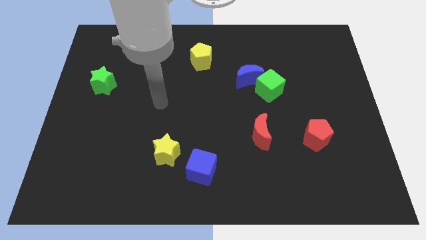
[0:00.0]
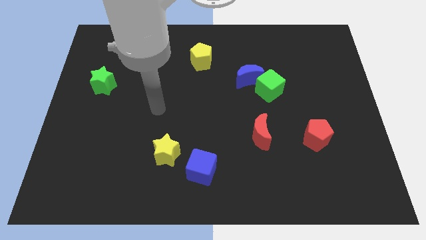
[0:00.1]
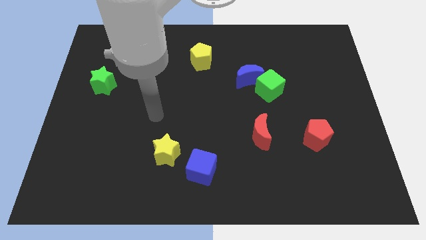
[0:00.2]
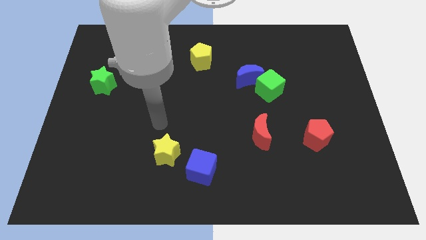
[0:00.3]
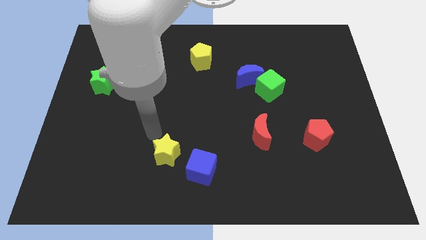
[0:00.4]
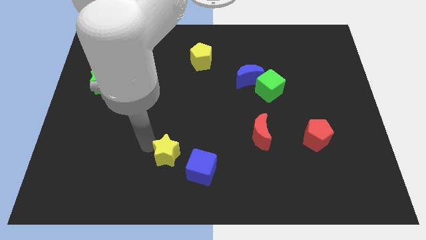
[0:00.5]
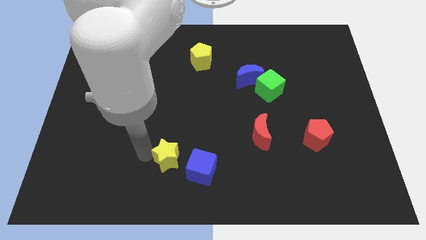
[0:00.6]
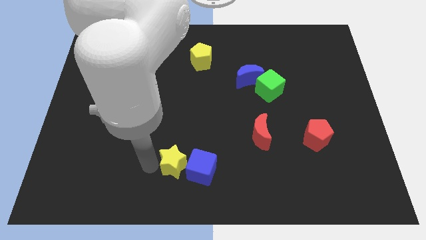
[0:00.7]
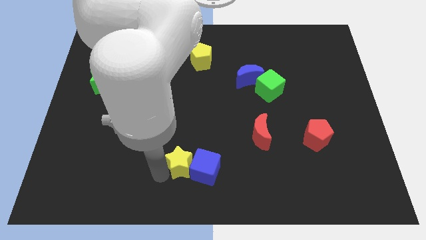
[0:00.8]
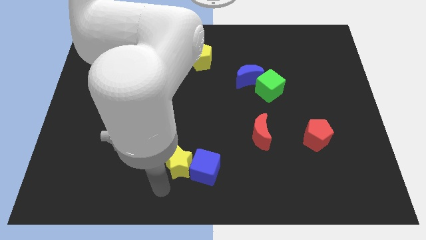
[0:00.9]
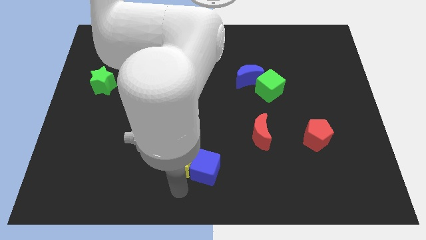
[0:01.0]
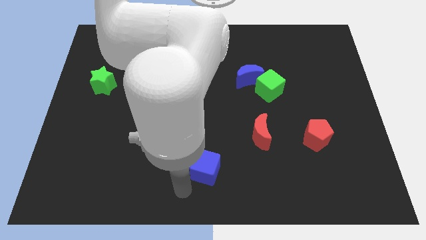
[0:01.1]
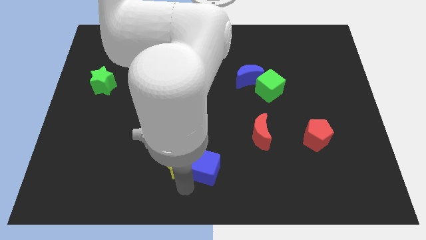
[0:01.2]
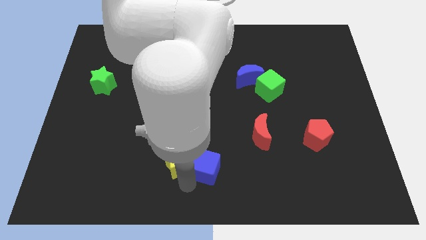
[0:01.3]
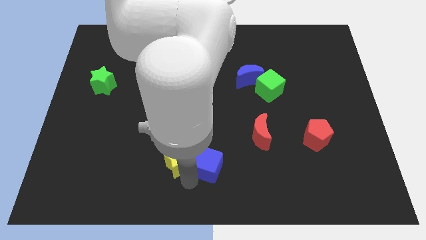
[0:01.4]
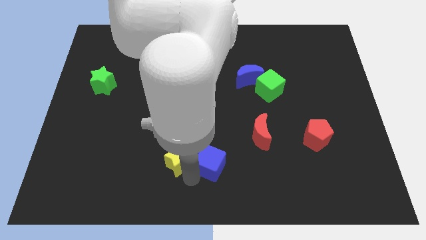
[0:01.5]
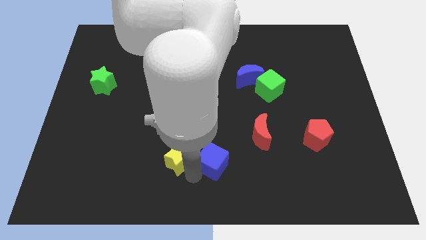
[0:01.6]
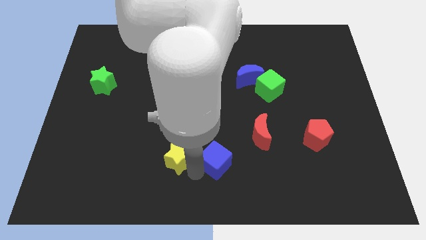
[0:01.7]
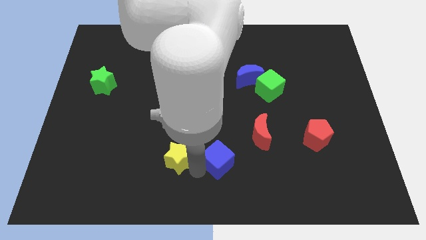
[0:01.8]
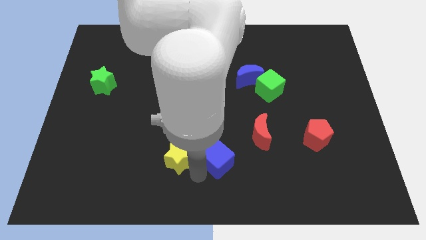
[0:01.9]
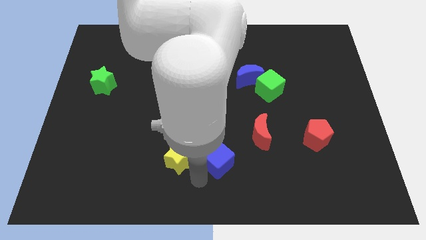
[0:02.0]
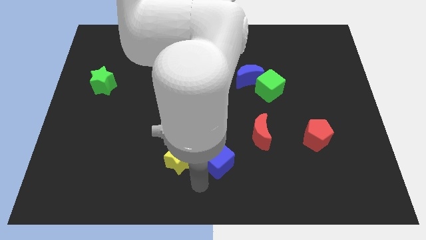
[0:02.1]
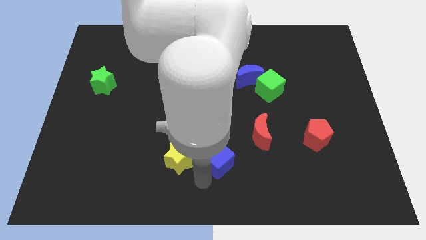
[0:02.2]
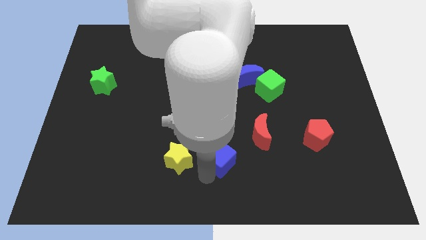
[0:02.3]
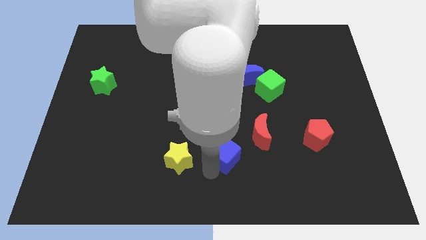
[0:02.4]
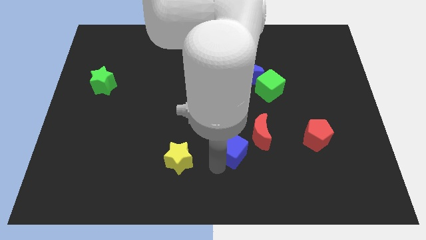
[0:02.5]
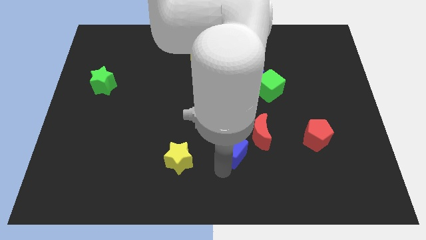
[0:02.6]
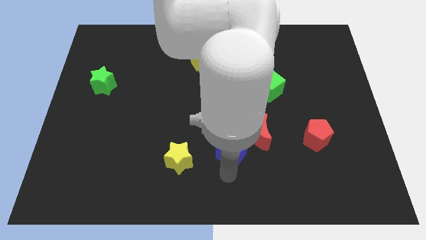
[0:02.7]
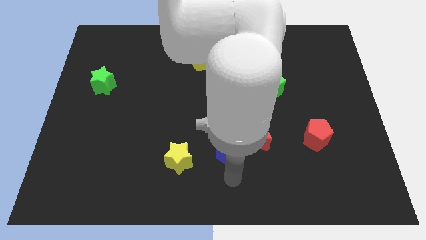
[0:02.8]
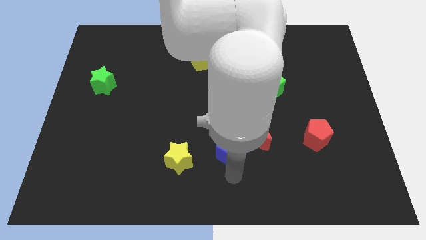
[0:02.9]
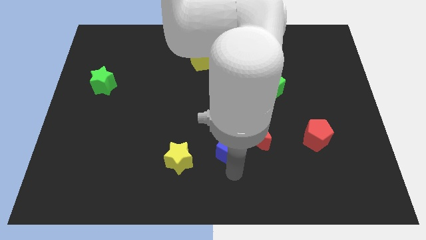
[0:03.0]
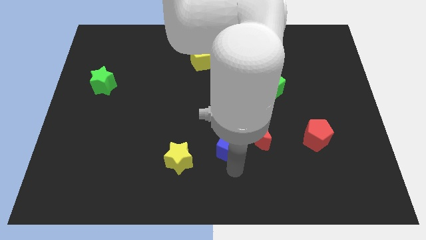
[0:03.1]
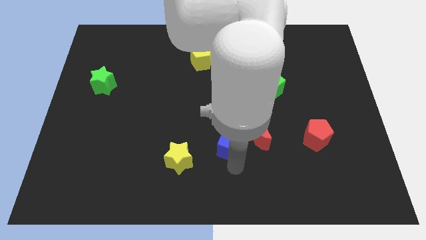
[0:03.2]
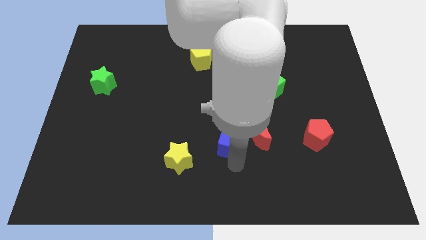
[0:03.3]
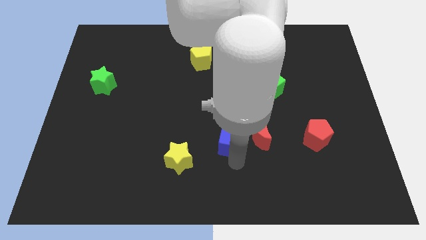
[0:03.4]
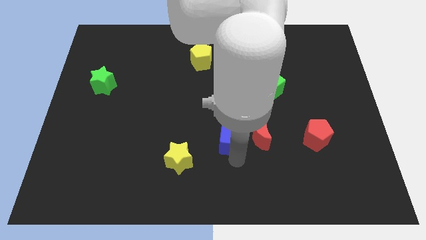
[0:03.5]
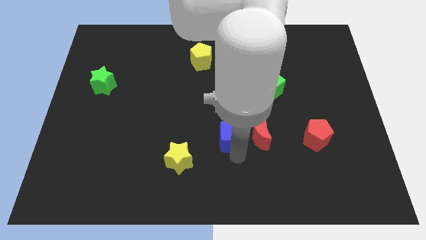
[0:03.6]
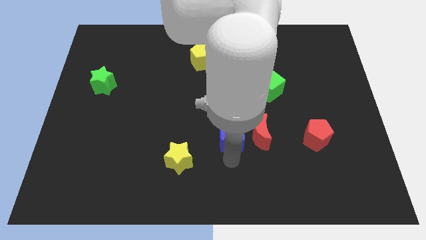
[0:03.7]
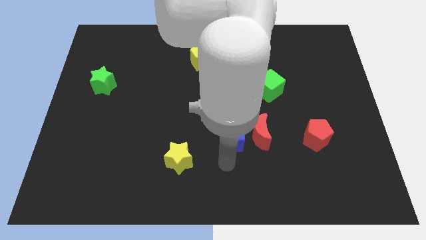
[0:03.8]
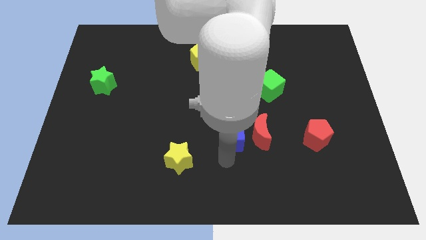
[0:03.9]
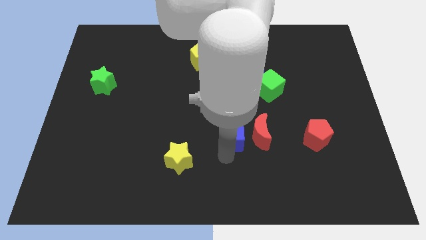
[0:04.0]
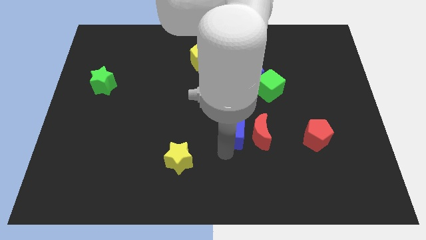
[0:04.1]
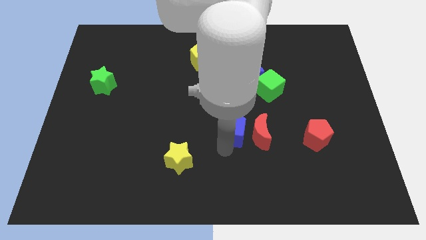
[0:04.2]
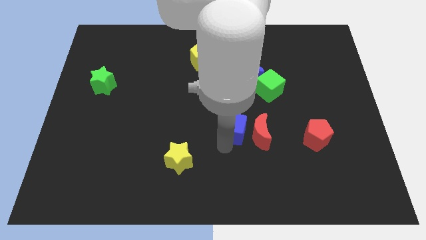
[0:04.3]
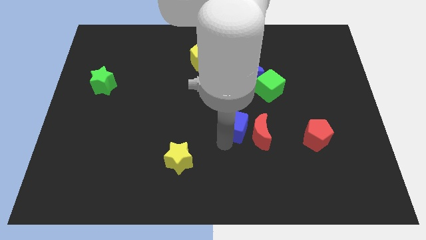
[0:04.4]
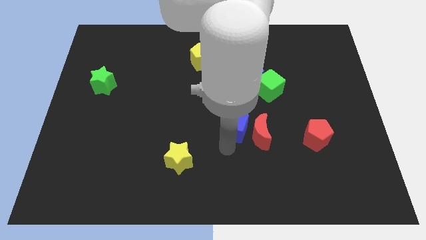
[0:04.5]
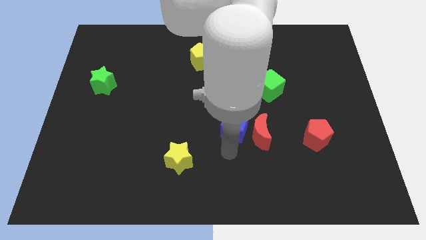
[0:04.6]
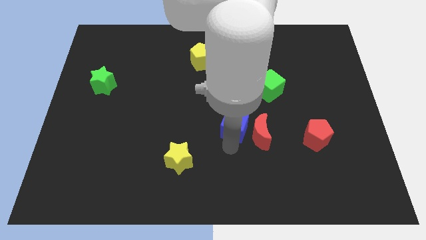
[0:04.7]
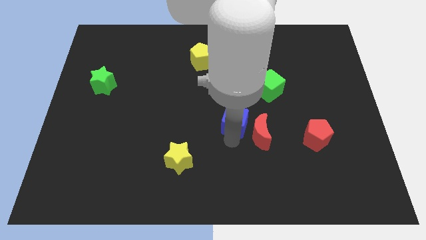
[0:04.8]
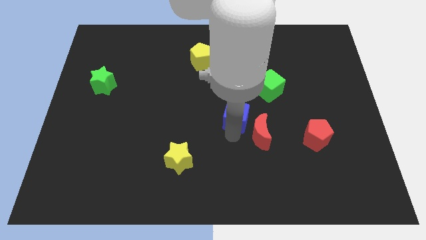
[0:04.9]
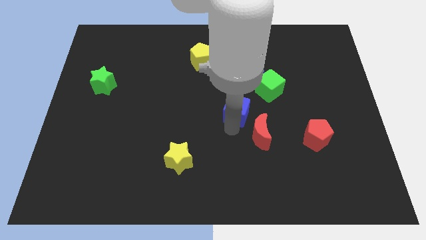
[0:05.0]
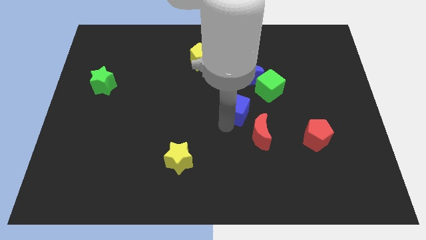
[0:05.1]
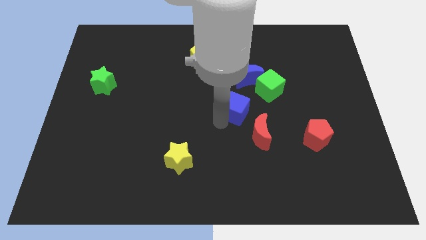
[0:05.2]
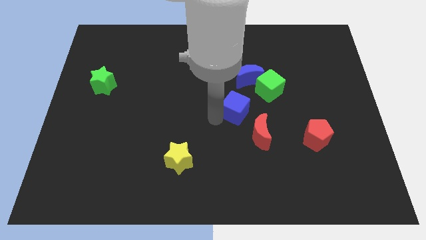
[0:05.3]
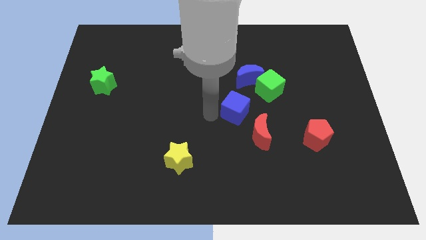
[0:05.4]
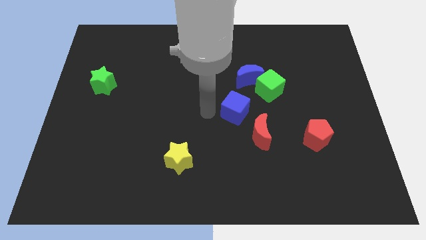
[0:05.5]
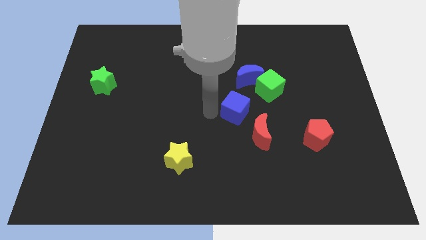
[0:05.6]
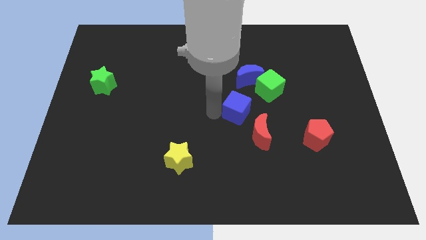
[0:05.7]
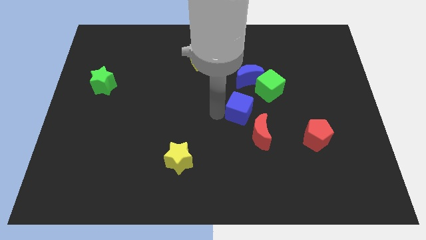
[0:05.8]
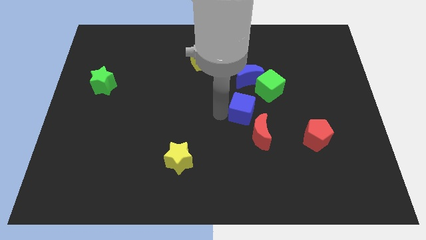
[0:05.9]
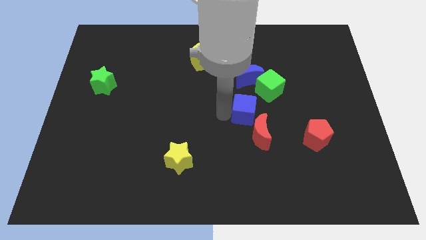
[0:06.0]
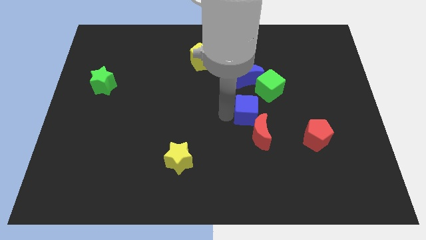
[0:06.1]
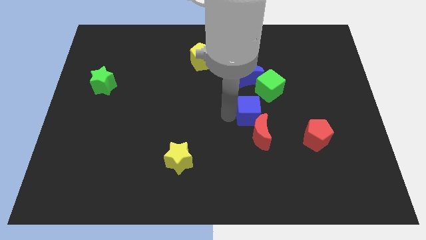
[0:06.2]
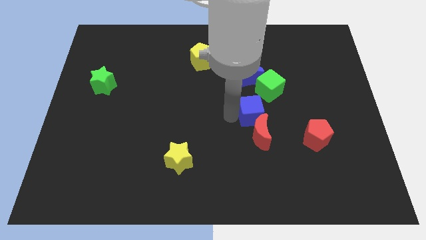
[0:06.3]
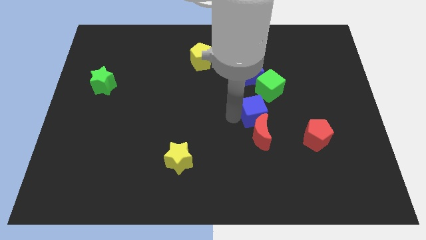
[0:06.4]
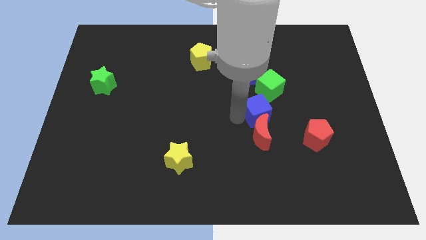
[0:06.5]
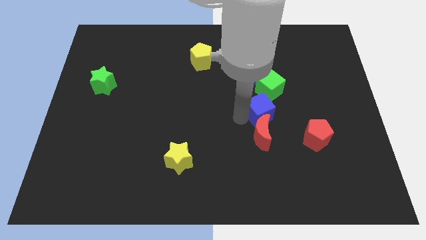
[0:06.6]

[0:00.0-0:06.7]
slide the blue cube up and to the right diagonally

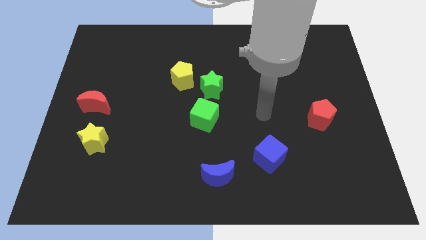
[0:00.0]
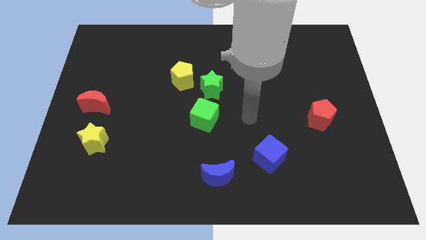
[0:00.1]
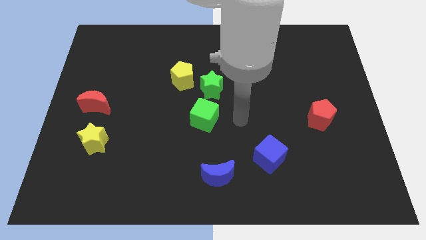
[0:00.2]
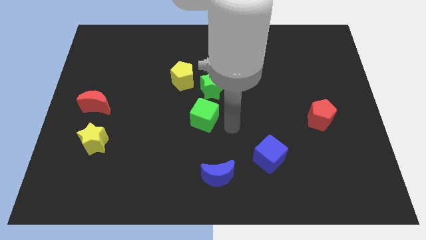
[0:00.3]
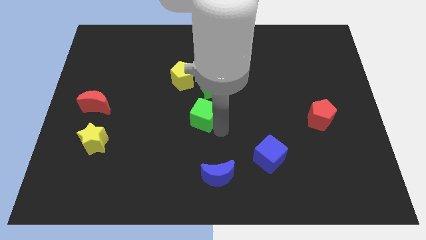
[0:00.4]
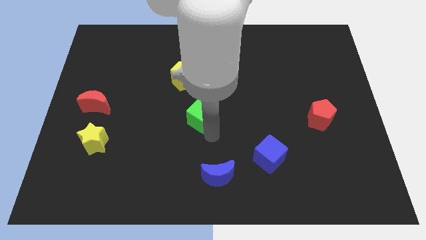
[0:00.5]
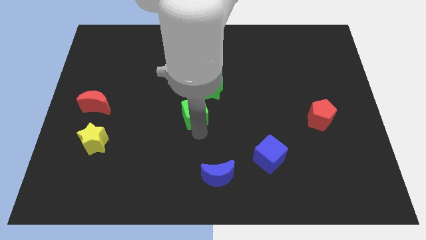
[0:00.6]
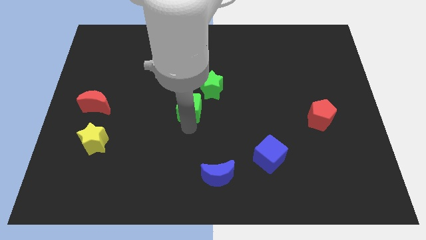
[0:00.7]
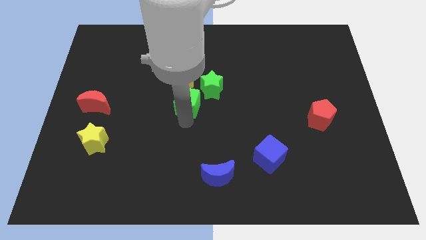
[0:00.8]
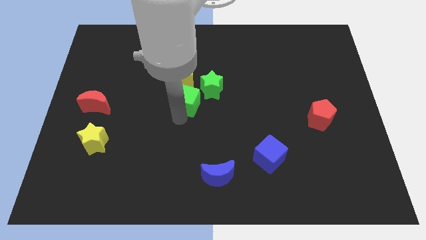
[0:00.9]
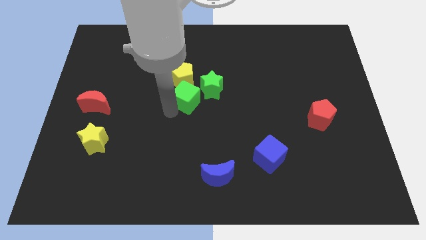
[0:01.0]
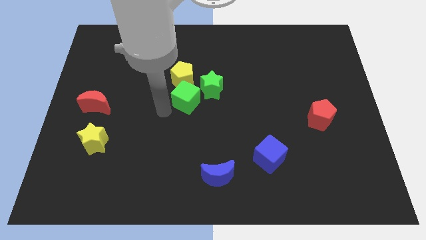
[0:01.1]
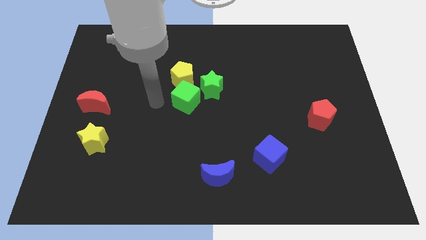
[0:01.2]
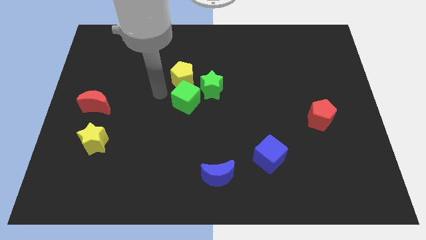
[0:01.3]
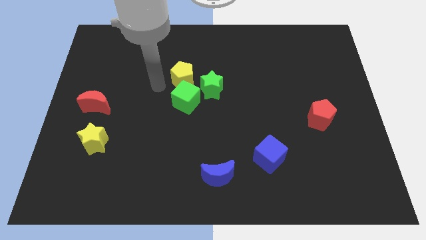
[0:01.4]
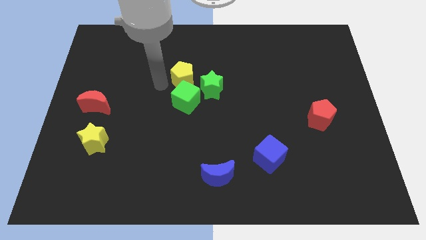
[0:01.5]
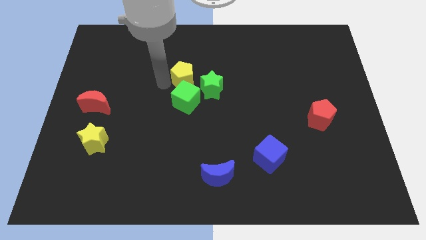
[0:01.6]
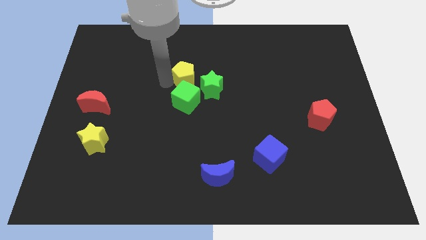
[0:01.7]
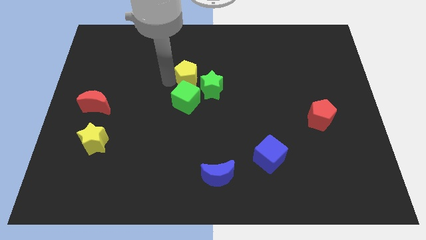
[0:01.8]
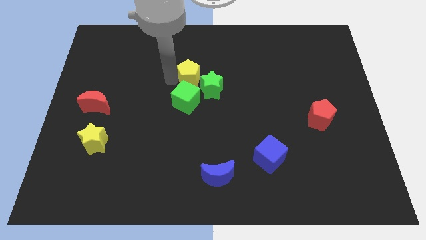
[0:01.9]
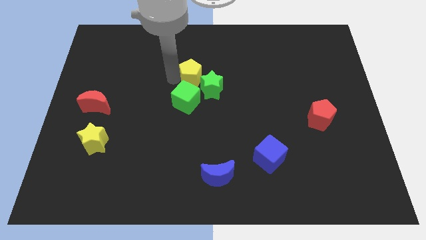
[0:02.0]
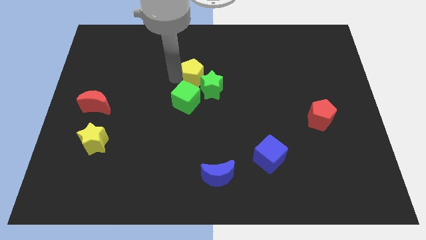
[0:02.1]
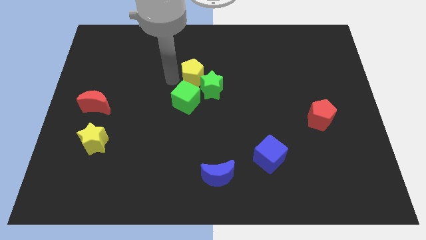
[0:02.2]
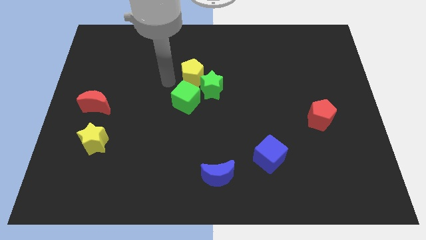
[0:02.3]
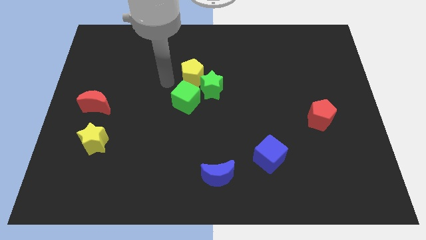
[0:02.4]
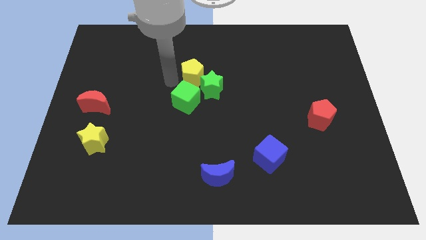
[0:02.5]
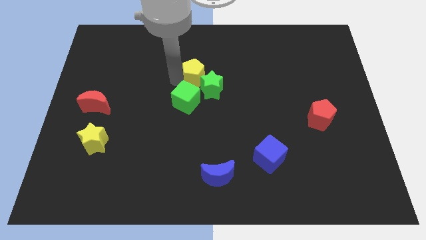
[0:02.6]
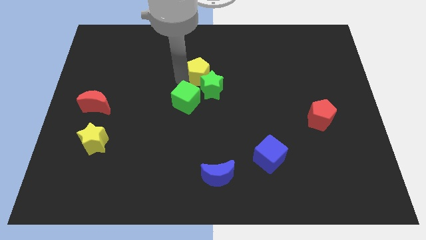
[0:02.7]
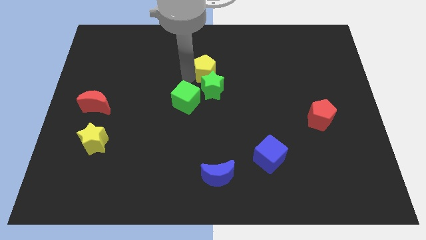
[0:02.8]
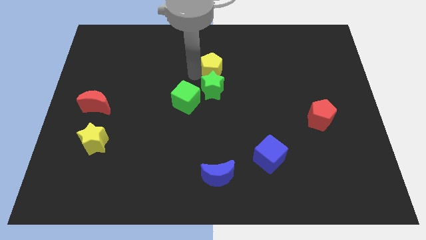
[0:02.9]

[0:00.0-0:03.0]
push the yellow pentagon to the right slightly
